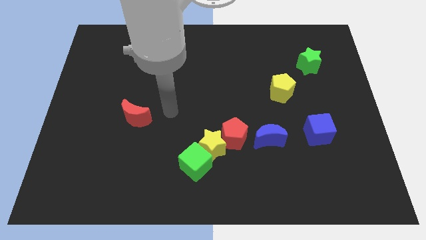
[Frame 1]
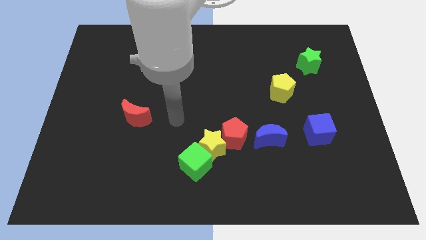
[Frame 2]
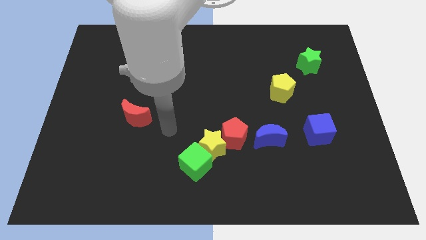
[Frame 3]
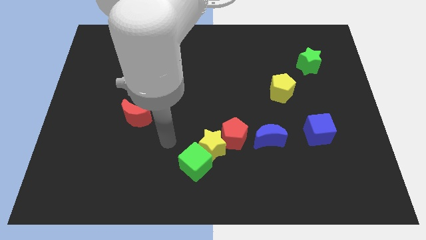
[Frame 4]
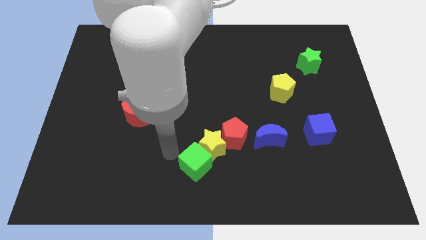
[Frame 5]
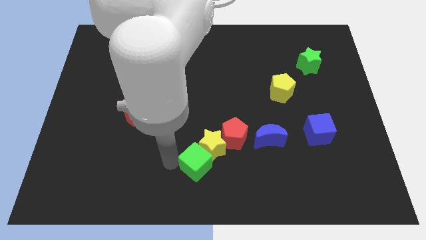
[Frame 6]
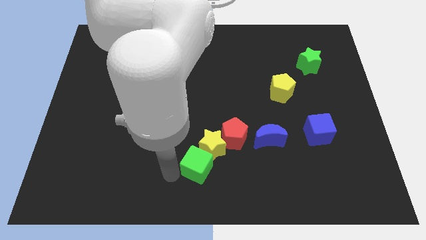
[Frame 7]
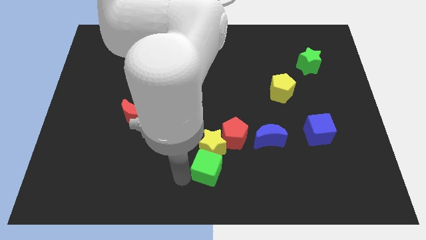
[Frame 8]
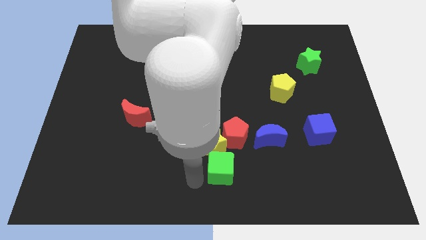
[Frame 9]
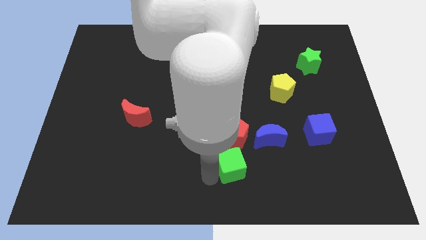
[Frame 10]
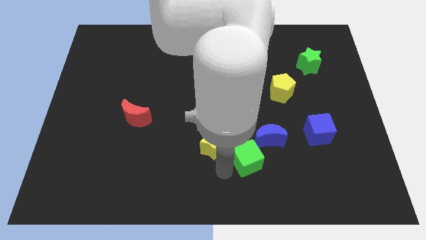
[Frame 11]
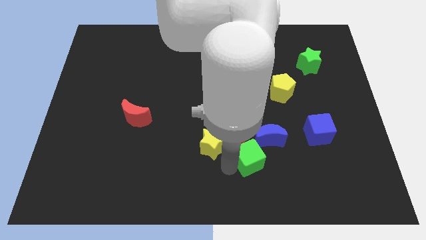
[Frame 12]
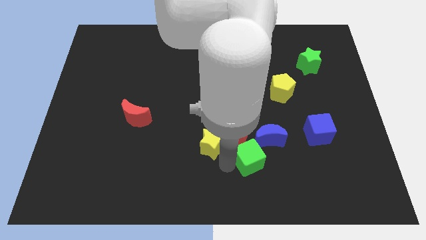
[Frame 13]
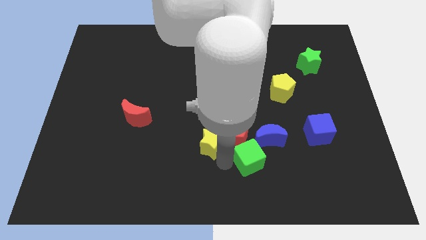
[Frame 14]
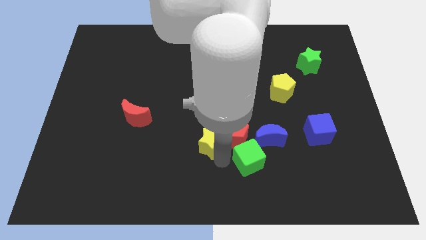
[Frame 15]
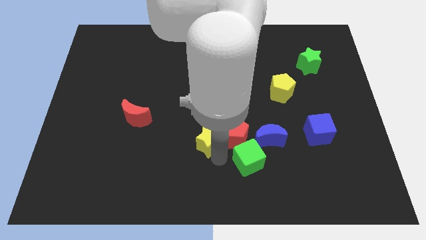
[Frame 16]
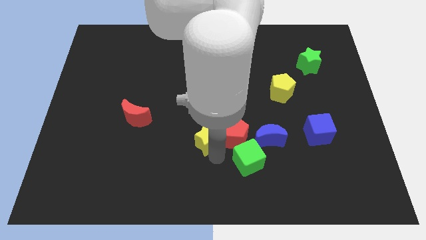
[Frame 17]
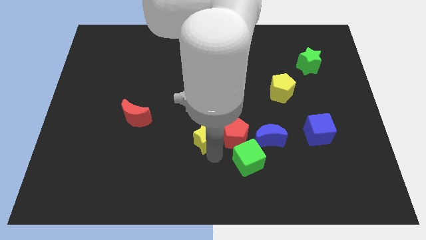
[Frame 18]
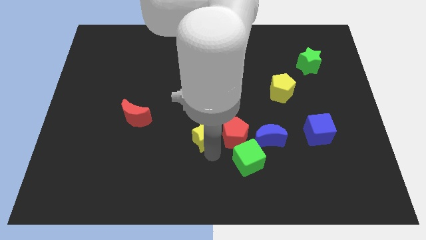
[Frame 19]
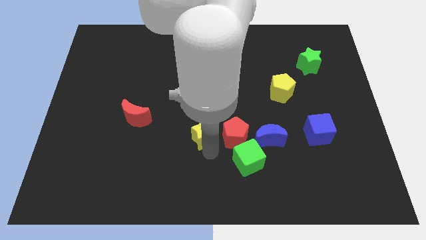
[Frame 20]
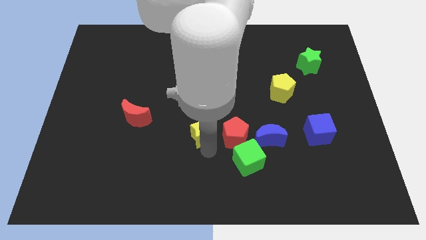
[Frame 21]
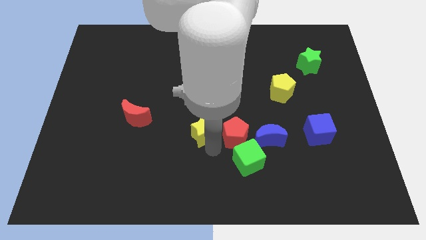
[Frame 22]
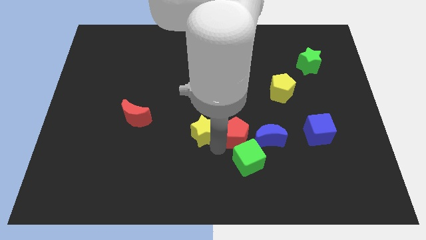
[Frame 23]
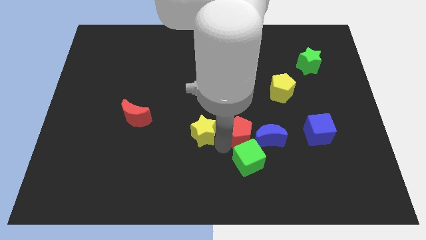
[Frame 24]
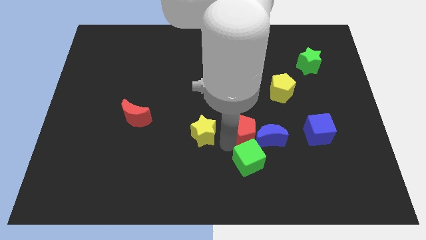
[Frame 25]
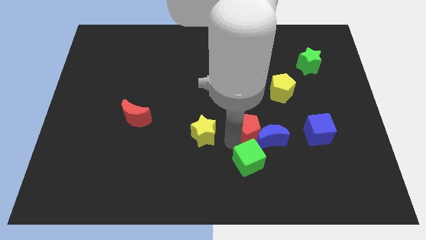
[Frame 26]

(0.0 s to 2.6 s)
separate the yellow star from the red pentagon and green cube

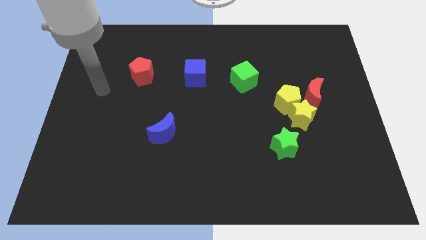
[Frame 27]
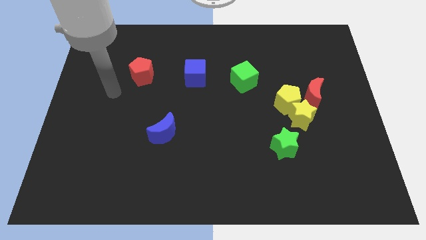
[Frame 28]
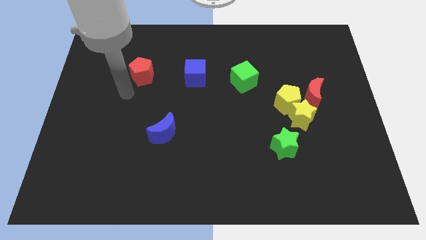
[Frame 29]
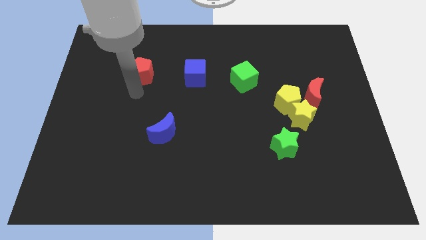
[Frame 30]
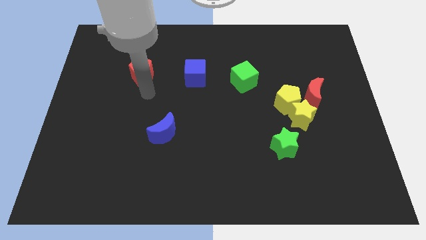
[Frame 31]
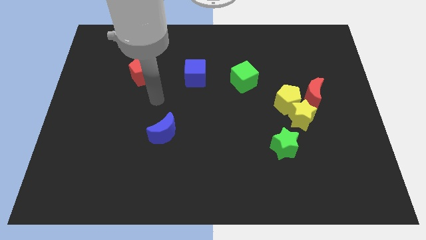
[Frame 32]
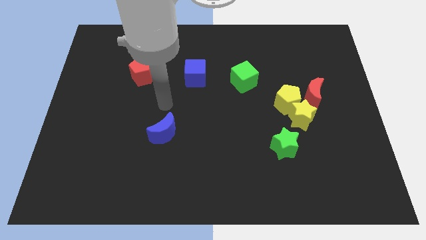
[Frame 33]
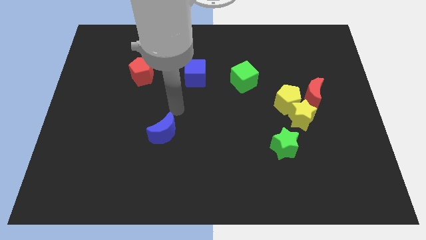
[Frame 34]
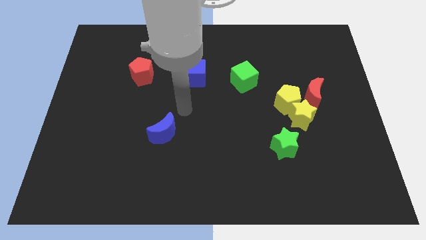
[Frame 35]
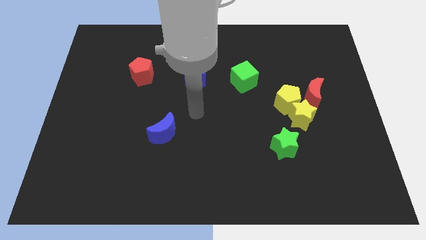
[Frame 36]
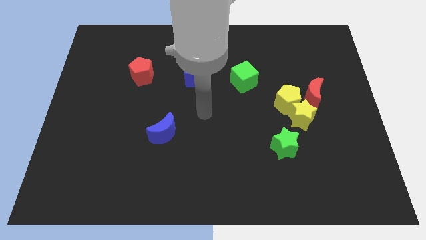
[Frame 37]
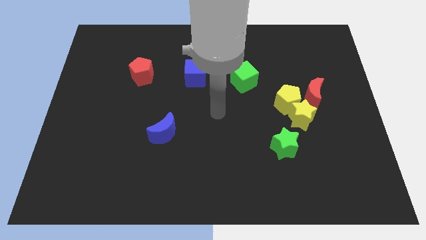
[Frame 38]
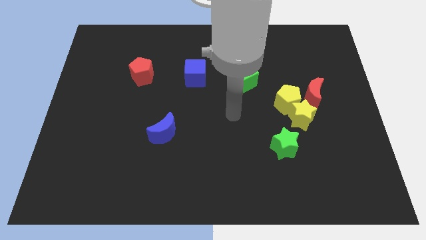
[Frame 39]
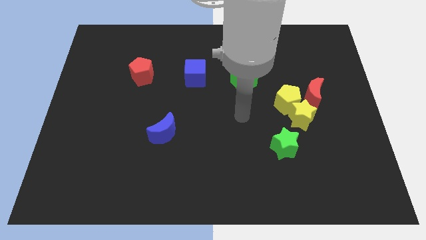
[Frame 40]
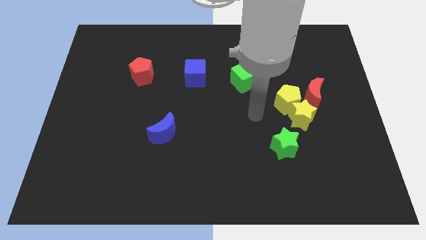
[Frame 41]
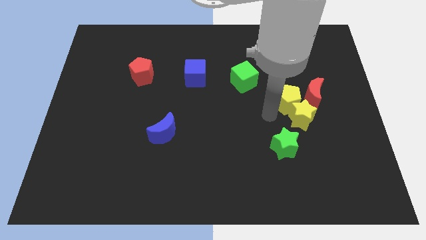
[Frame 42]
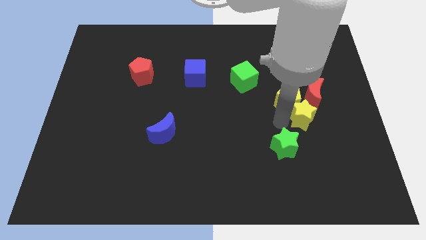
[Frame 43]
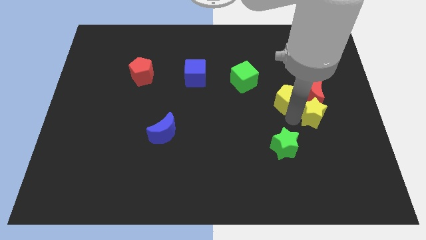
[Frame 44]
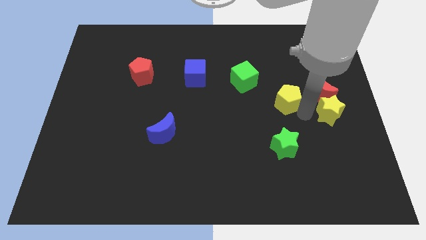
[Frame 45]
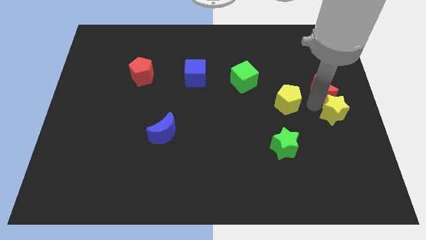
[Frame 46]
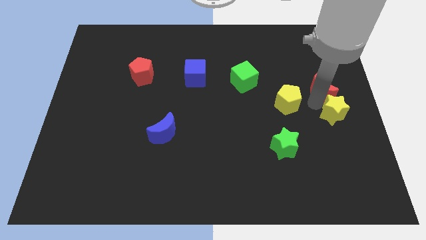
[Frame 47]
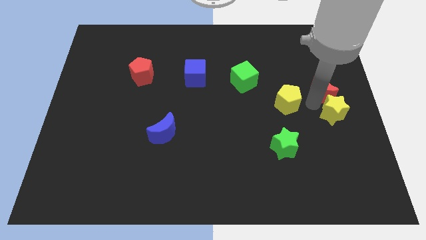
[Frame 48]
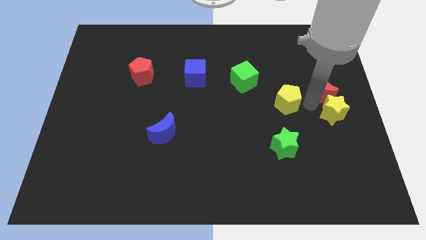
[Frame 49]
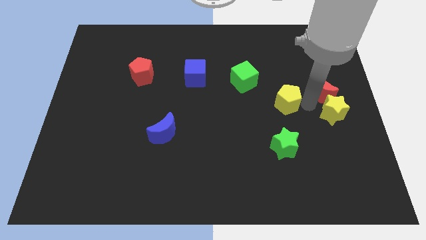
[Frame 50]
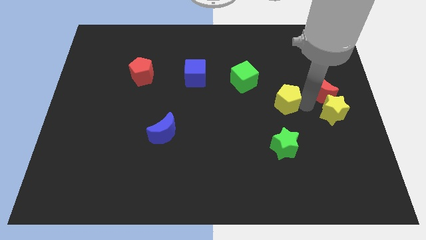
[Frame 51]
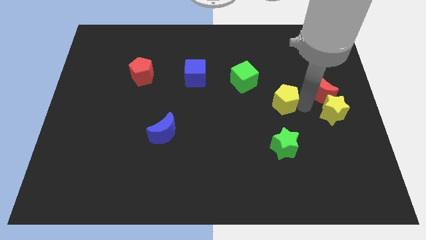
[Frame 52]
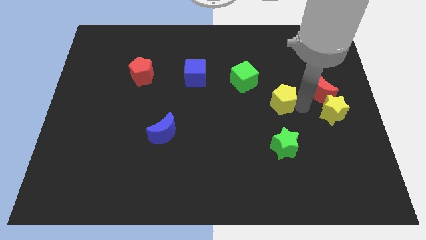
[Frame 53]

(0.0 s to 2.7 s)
separate the yellow pentagon from the yellow star and red moon

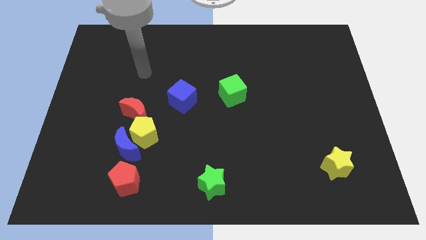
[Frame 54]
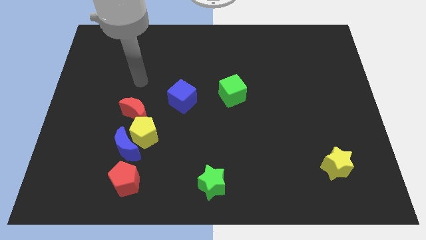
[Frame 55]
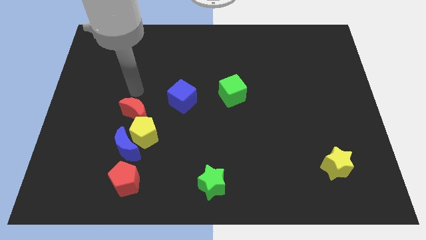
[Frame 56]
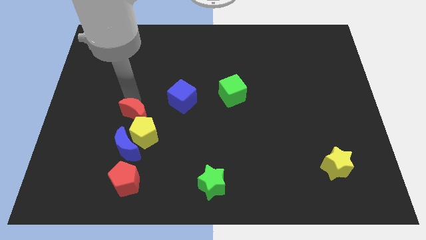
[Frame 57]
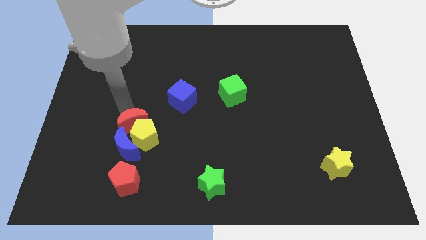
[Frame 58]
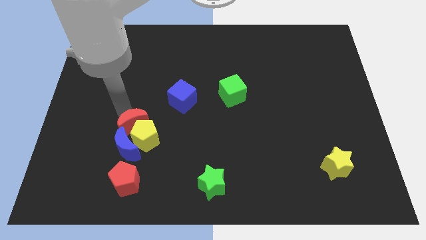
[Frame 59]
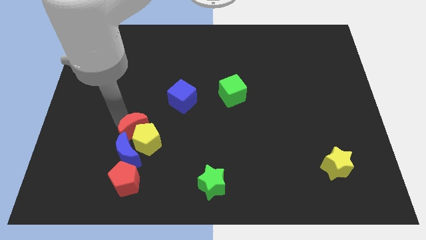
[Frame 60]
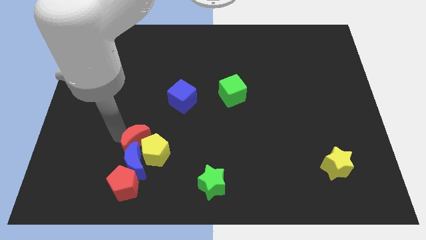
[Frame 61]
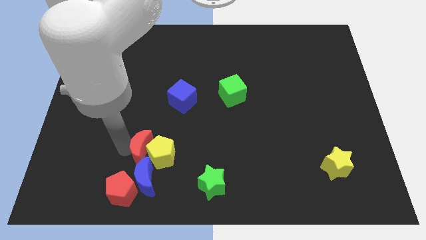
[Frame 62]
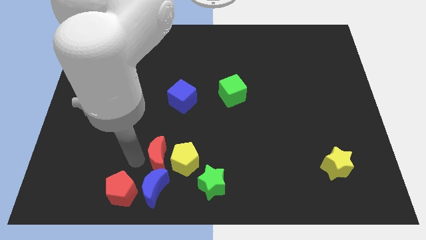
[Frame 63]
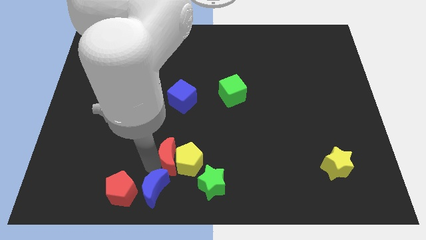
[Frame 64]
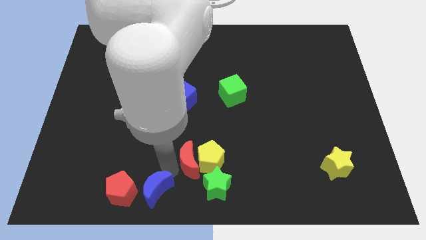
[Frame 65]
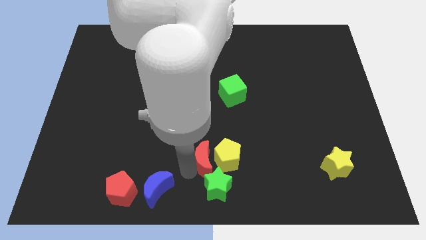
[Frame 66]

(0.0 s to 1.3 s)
separate the yellow pentagon from the blue moon and red moon

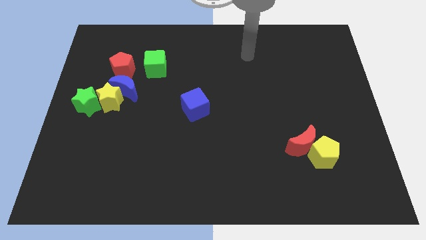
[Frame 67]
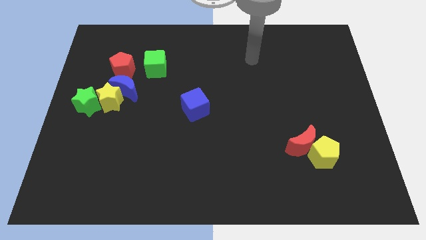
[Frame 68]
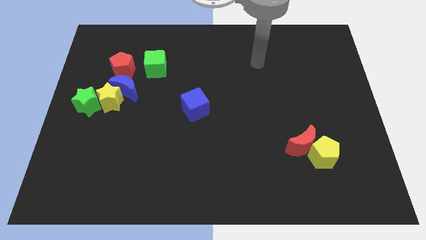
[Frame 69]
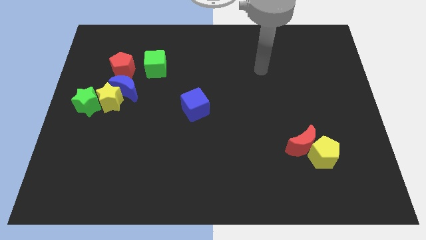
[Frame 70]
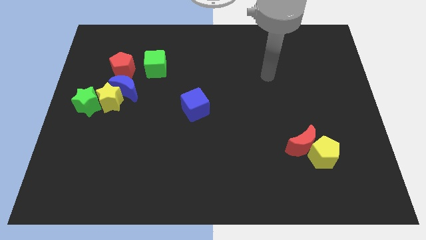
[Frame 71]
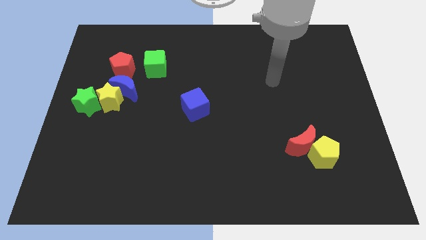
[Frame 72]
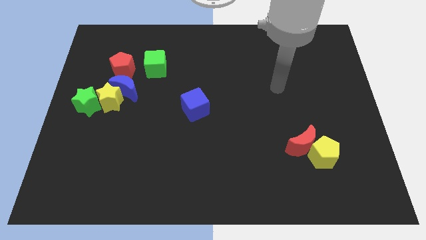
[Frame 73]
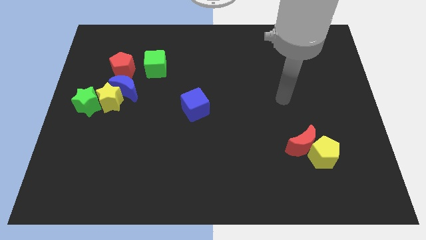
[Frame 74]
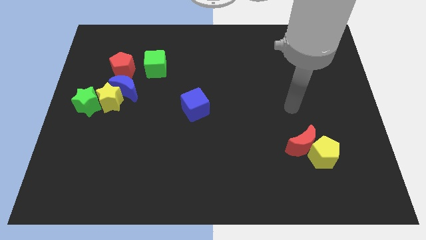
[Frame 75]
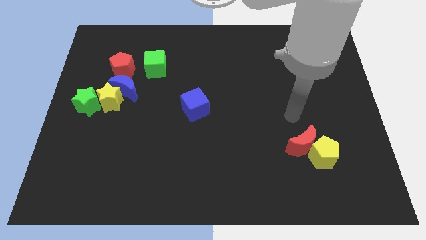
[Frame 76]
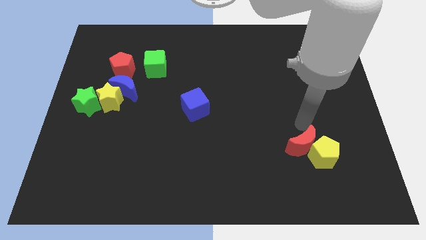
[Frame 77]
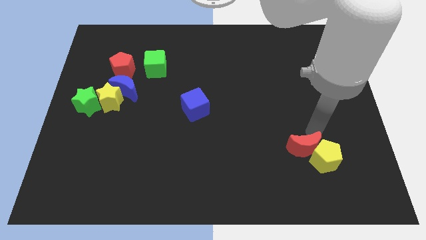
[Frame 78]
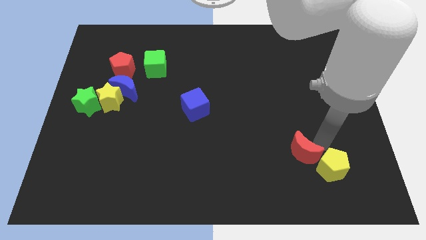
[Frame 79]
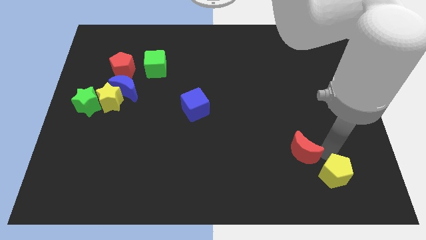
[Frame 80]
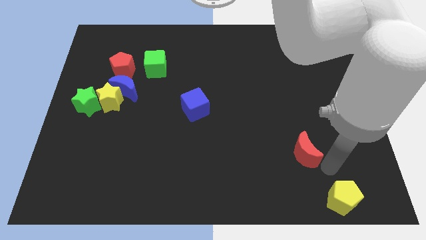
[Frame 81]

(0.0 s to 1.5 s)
pull the red moon apart from the yellow pentagon

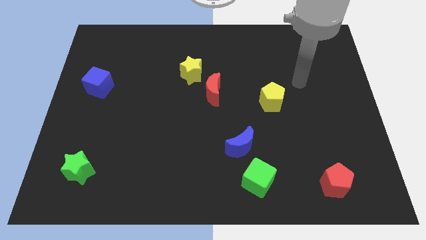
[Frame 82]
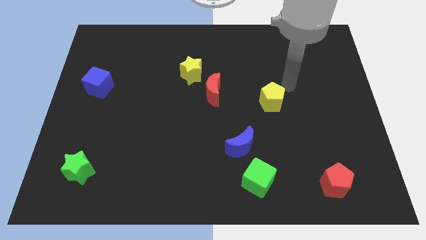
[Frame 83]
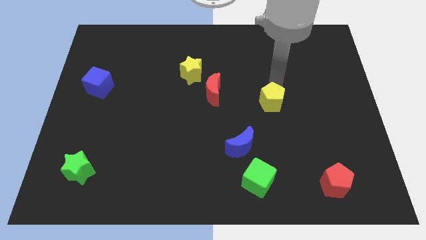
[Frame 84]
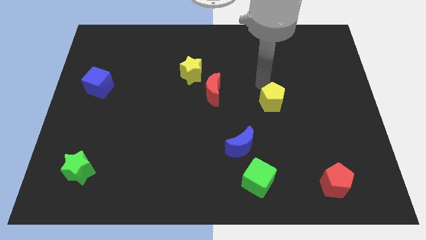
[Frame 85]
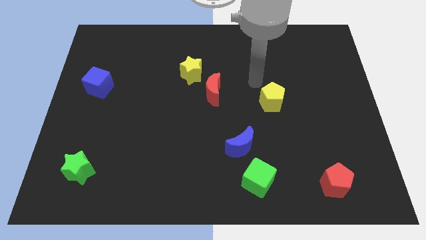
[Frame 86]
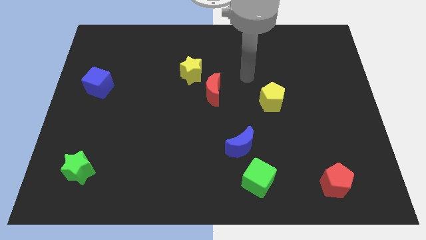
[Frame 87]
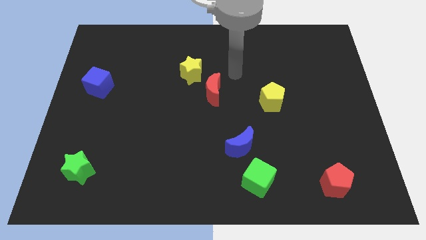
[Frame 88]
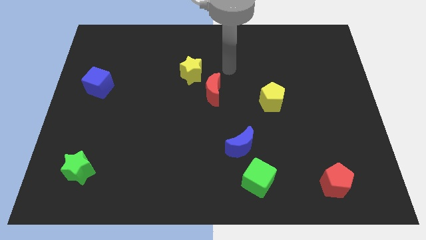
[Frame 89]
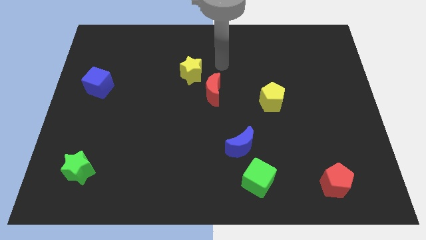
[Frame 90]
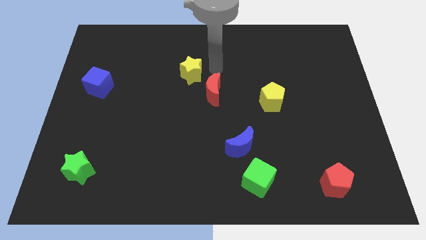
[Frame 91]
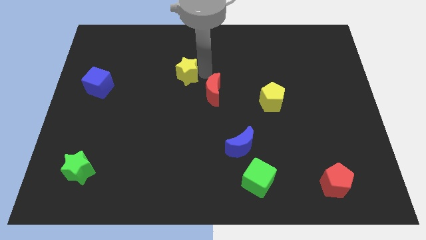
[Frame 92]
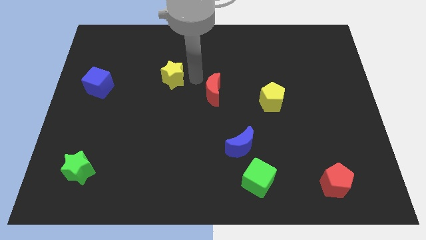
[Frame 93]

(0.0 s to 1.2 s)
move the red moon away from the yellow star
